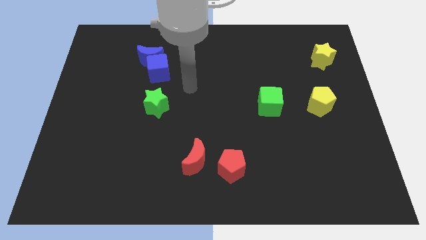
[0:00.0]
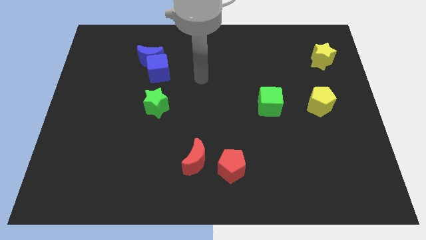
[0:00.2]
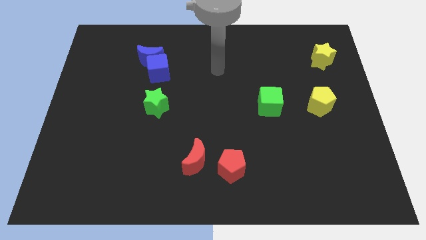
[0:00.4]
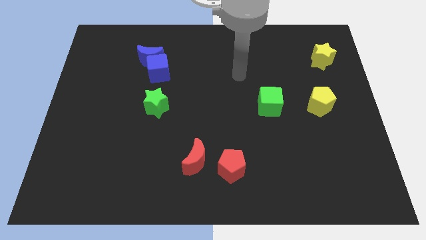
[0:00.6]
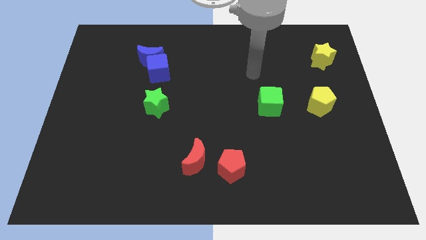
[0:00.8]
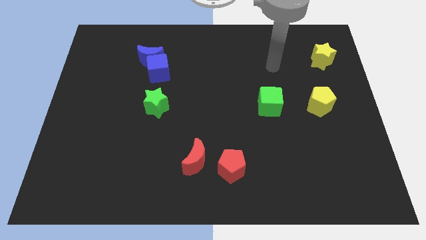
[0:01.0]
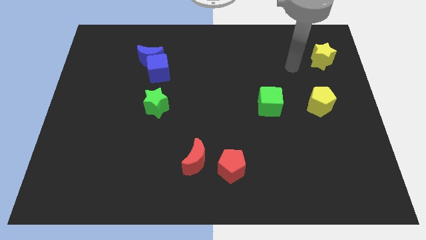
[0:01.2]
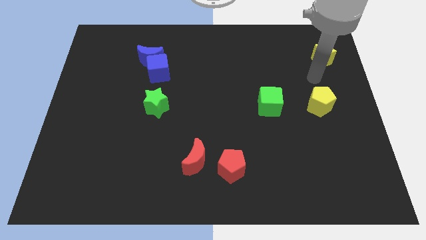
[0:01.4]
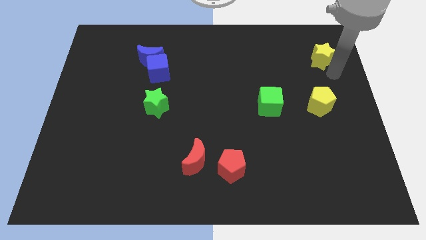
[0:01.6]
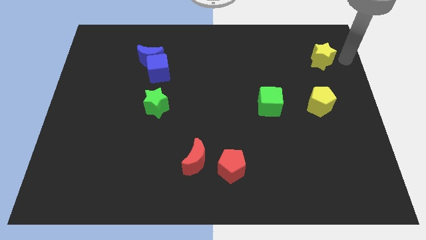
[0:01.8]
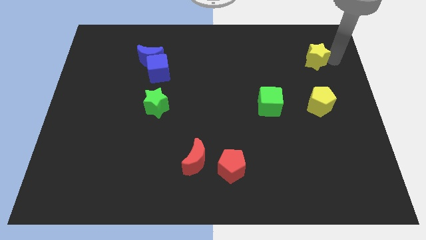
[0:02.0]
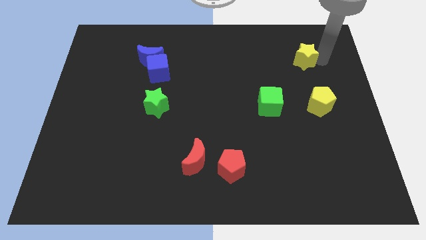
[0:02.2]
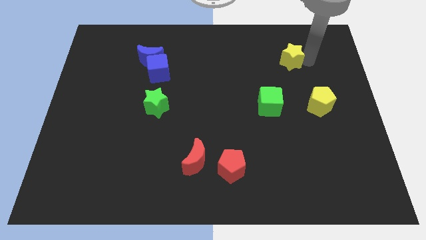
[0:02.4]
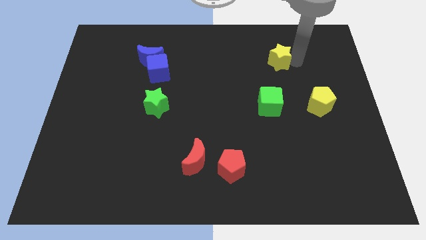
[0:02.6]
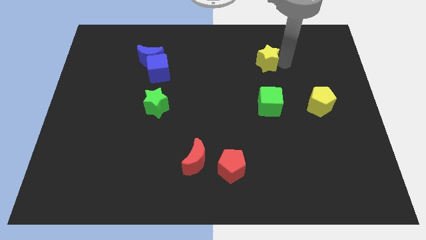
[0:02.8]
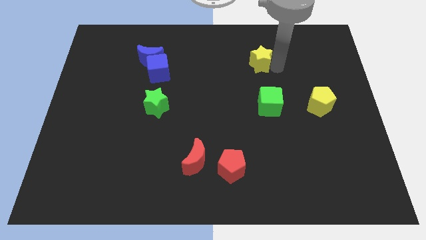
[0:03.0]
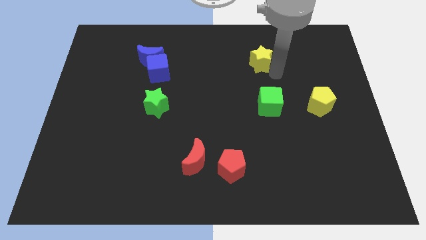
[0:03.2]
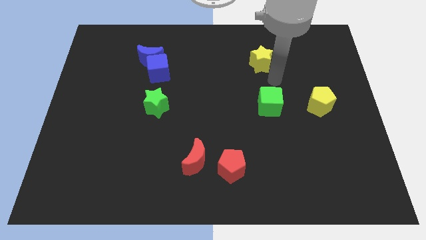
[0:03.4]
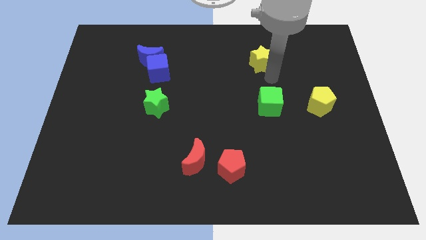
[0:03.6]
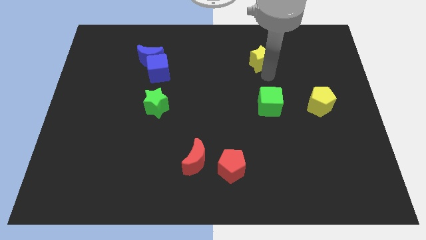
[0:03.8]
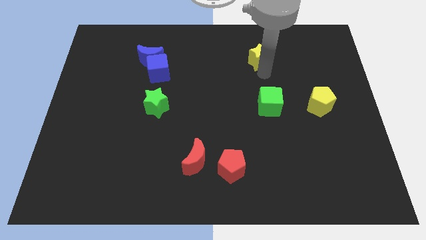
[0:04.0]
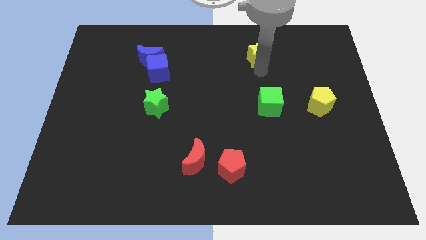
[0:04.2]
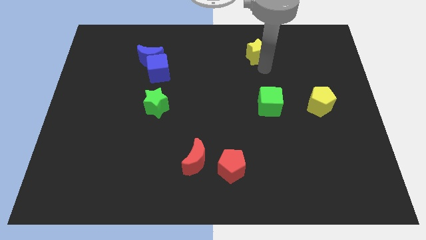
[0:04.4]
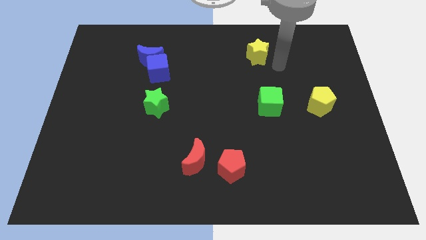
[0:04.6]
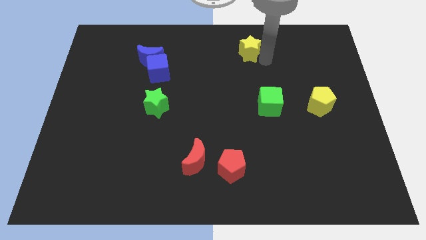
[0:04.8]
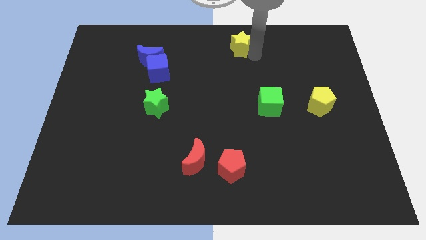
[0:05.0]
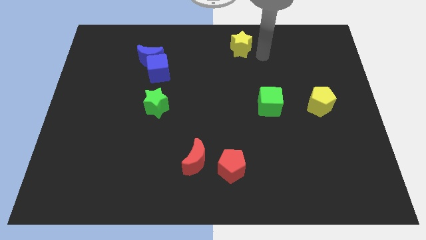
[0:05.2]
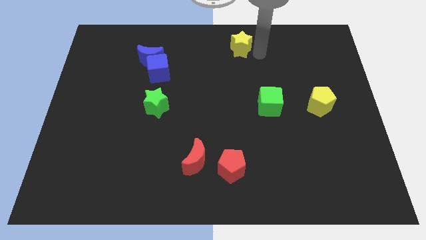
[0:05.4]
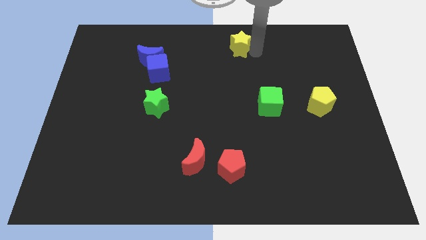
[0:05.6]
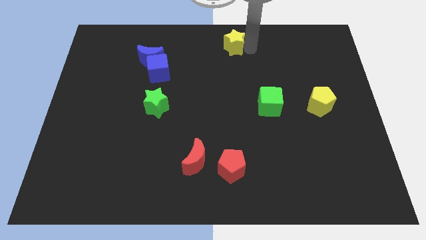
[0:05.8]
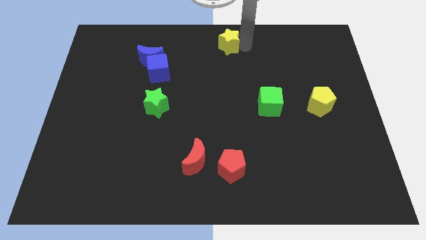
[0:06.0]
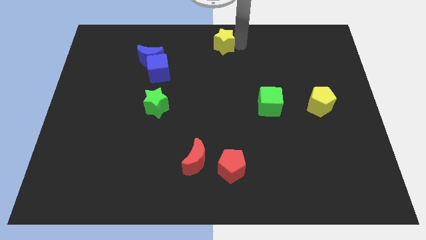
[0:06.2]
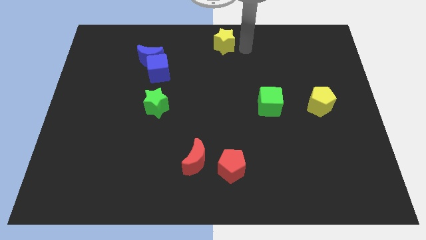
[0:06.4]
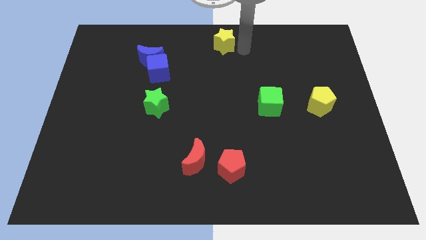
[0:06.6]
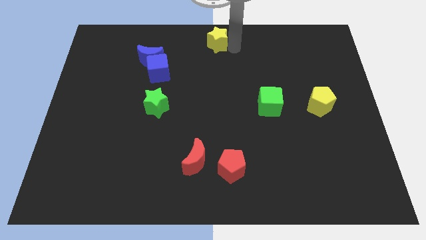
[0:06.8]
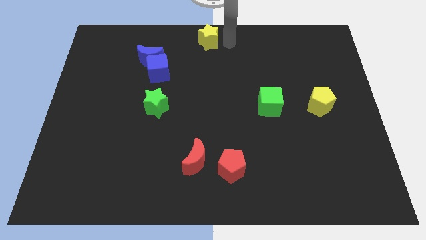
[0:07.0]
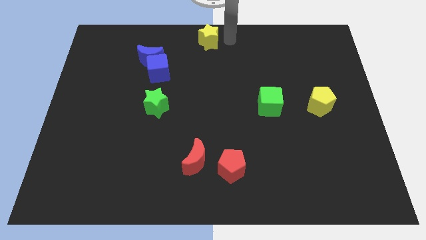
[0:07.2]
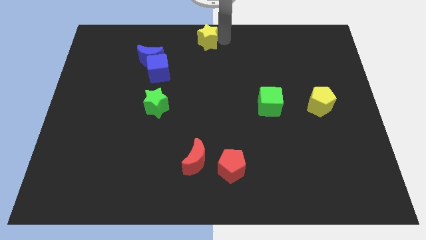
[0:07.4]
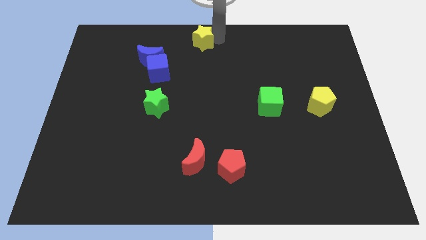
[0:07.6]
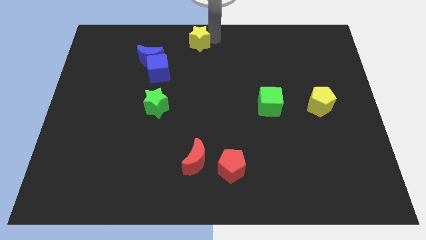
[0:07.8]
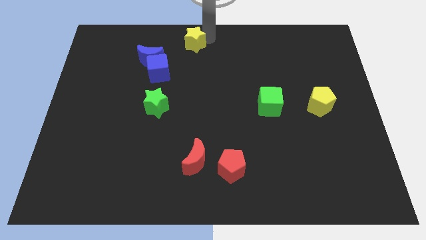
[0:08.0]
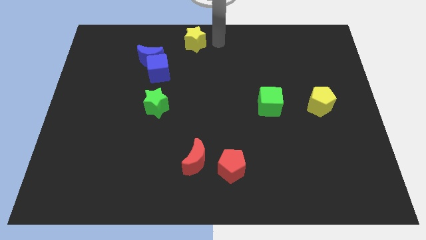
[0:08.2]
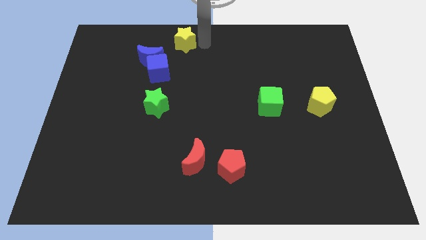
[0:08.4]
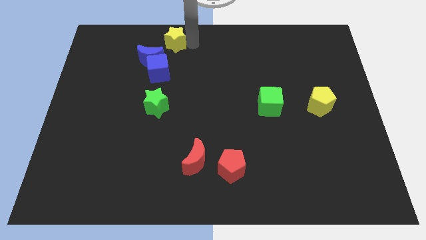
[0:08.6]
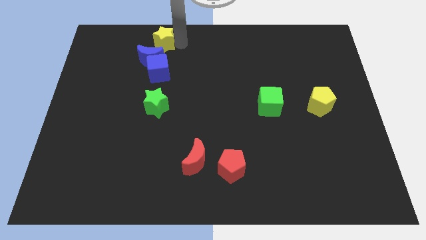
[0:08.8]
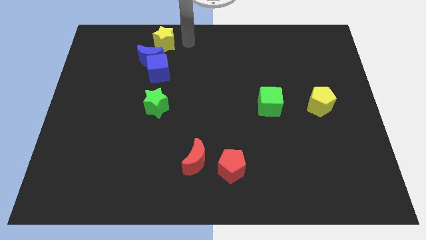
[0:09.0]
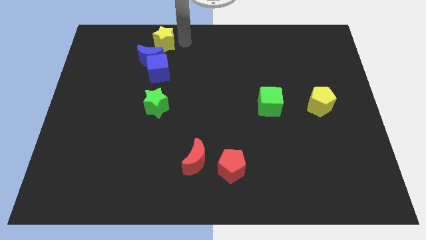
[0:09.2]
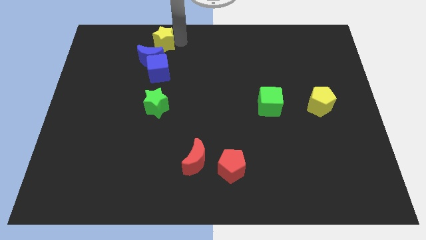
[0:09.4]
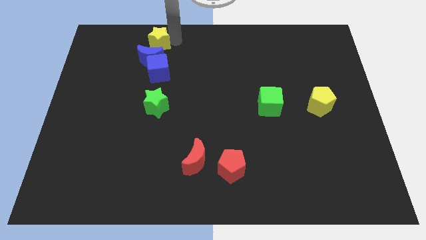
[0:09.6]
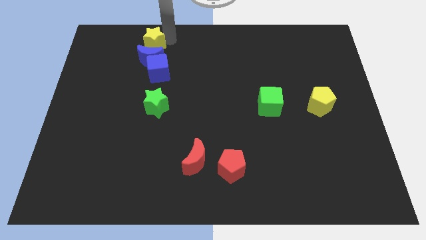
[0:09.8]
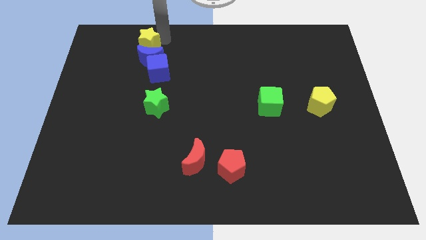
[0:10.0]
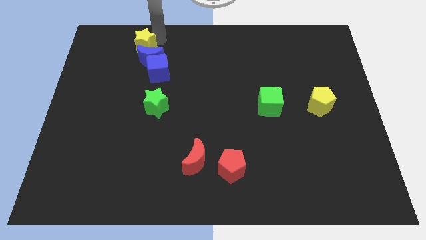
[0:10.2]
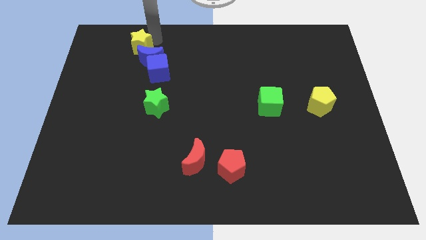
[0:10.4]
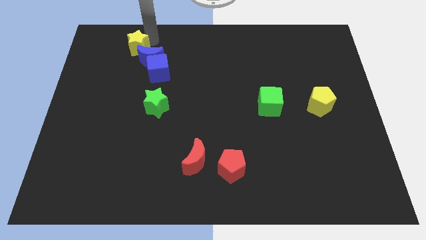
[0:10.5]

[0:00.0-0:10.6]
put the yellow star to the left side of the blue moon

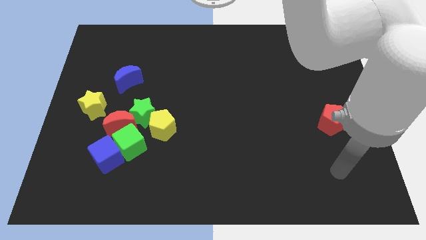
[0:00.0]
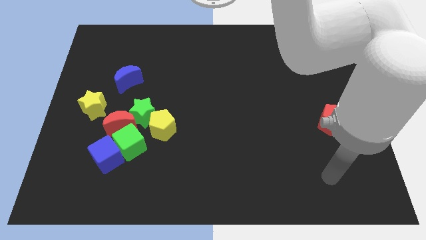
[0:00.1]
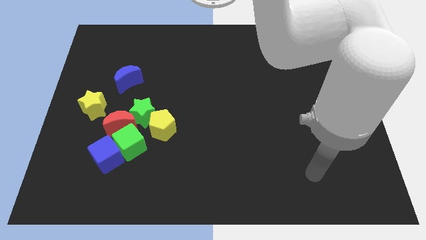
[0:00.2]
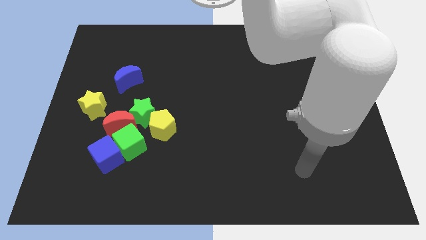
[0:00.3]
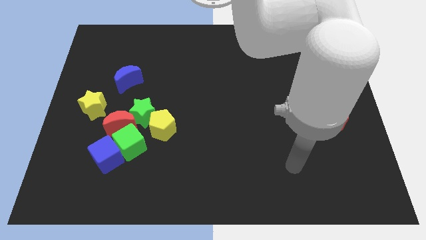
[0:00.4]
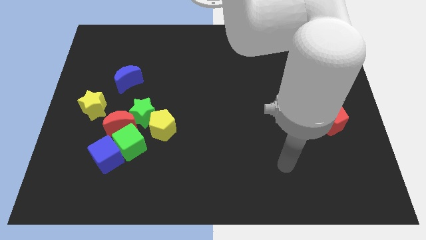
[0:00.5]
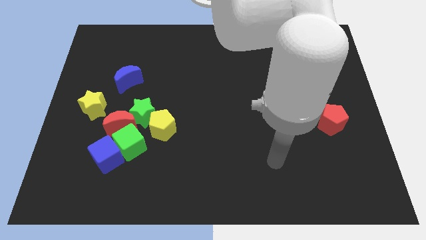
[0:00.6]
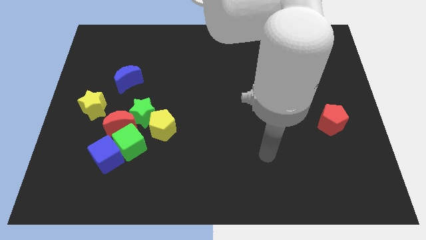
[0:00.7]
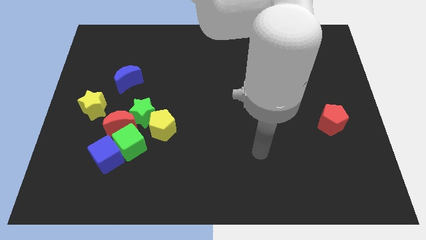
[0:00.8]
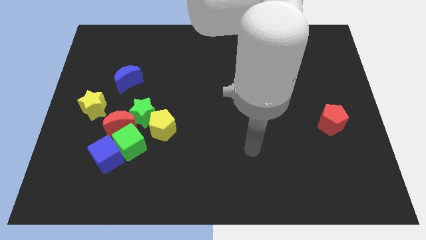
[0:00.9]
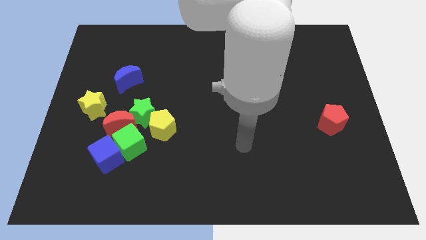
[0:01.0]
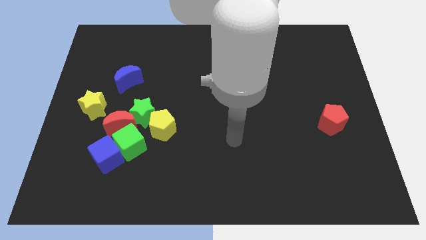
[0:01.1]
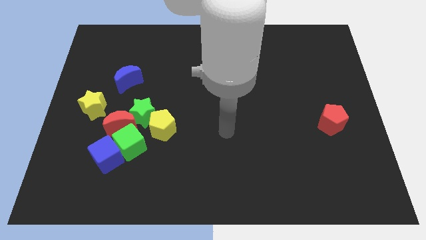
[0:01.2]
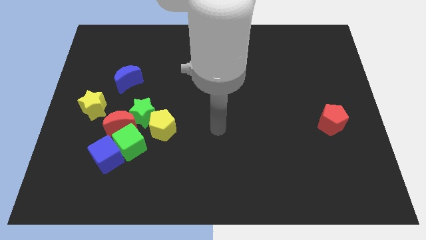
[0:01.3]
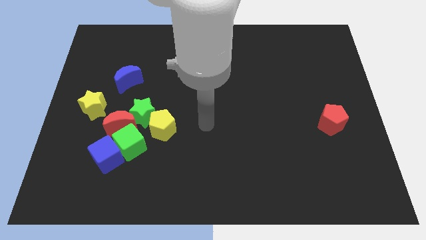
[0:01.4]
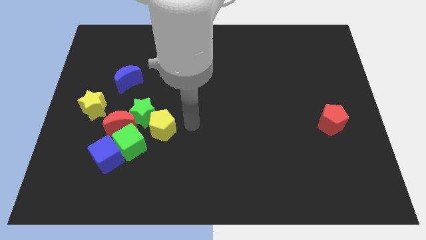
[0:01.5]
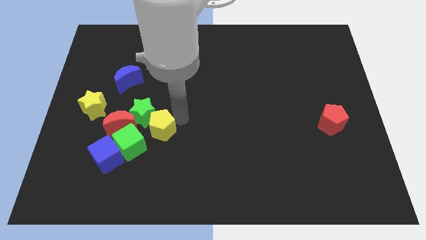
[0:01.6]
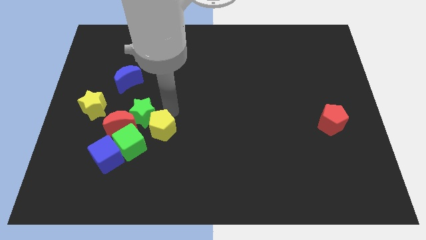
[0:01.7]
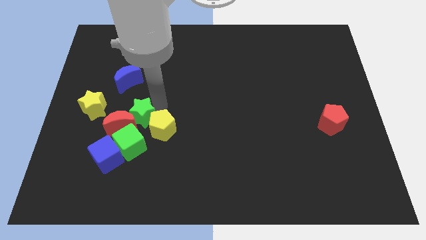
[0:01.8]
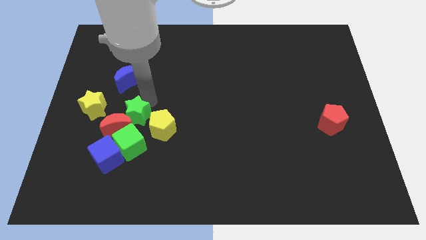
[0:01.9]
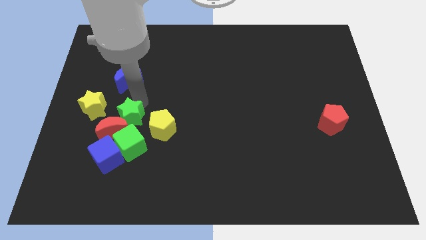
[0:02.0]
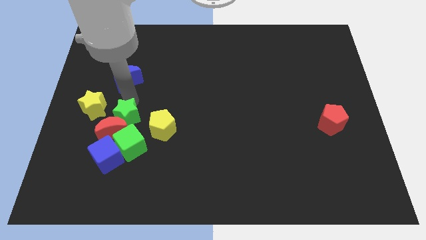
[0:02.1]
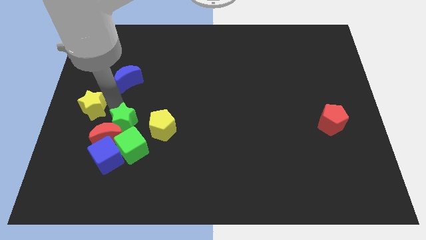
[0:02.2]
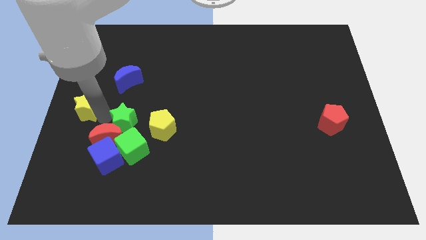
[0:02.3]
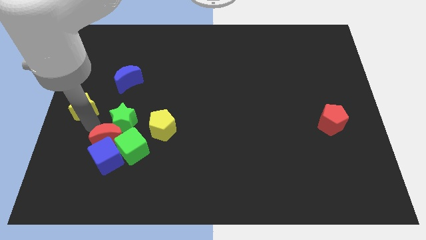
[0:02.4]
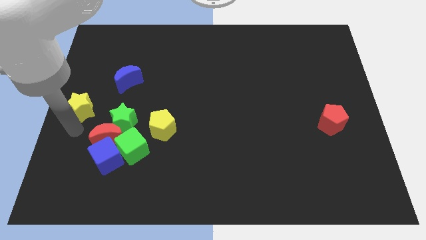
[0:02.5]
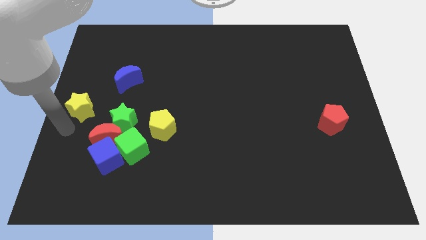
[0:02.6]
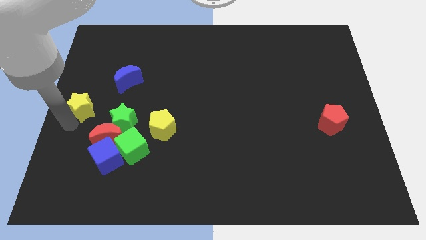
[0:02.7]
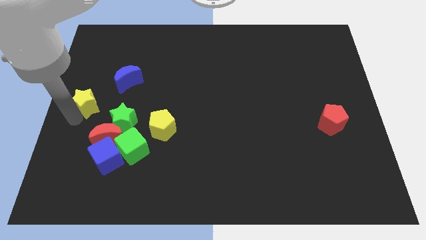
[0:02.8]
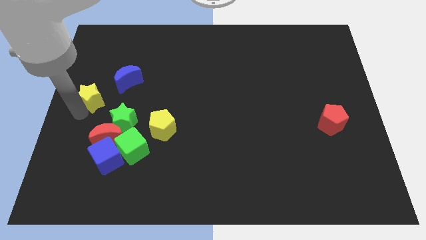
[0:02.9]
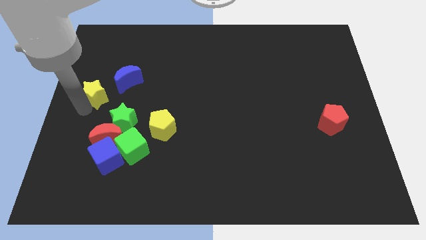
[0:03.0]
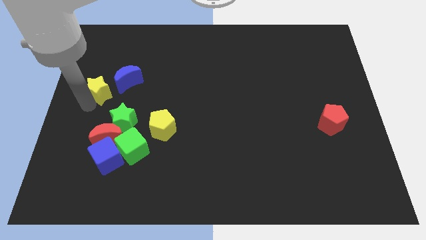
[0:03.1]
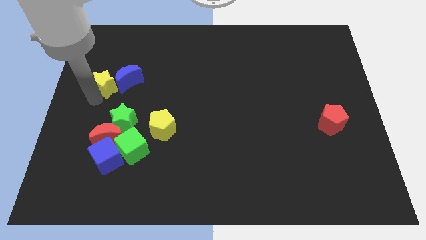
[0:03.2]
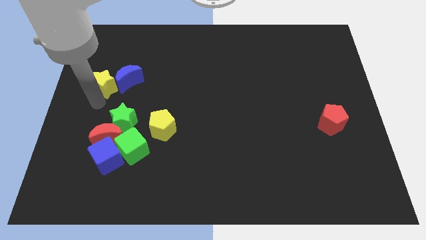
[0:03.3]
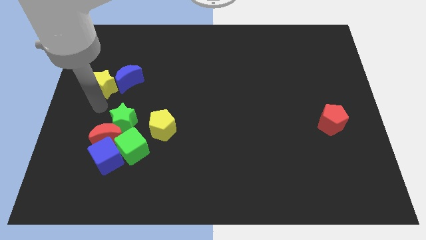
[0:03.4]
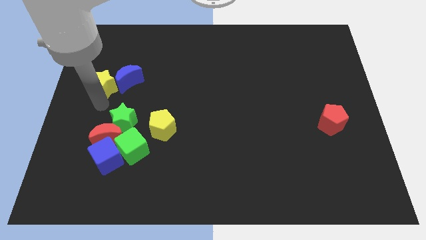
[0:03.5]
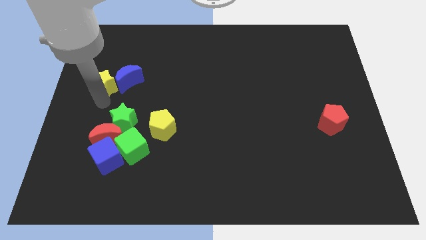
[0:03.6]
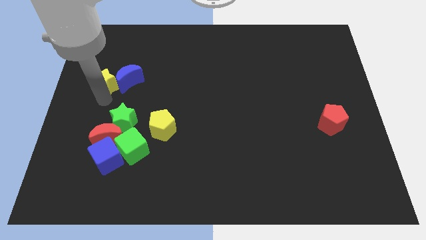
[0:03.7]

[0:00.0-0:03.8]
move the yellow star diagonally up and to the left of the blue moon
